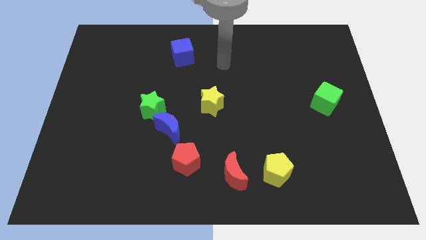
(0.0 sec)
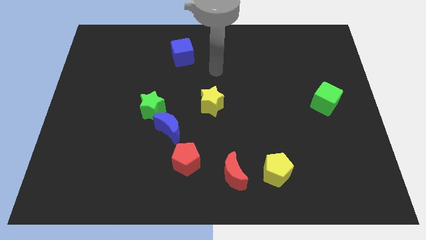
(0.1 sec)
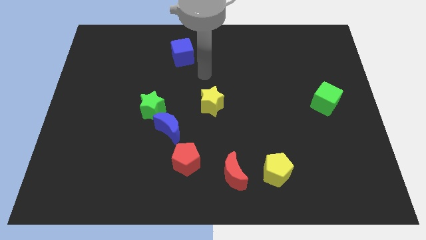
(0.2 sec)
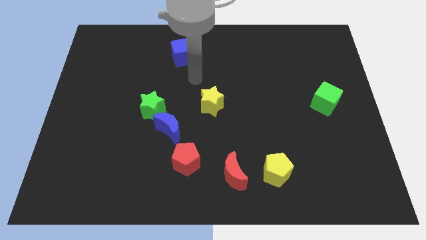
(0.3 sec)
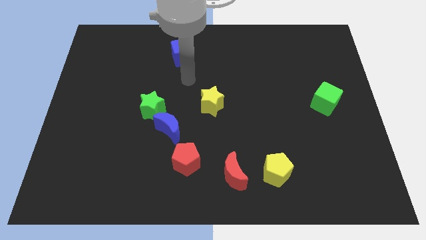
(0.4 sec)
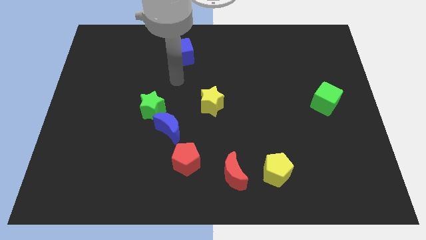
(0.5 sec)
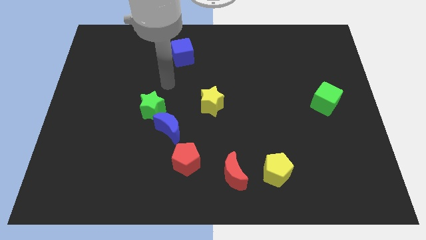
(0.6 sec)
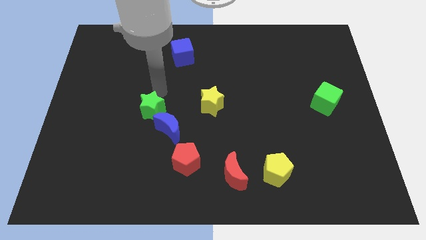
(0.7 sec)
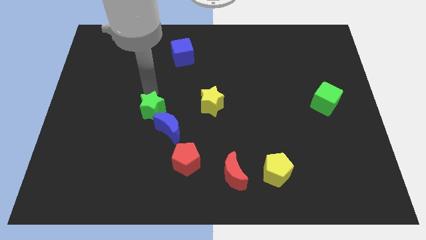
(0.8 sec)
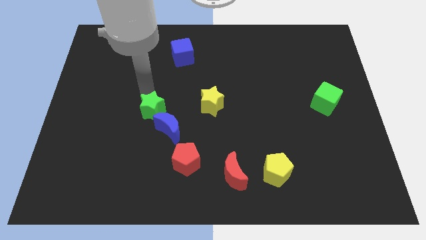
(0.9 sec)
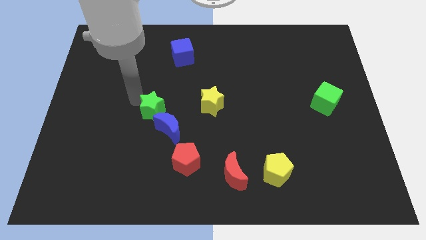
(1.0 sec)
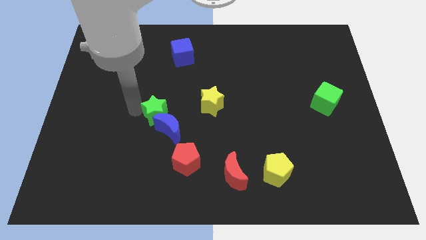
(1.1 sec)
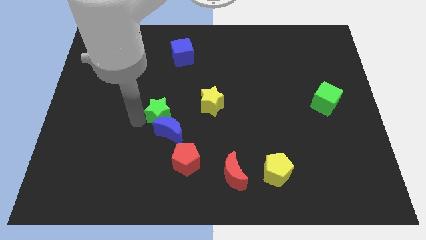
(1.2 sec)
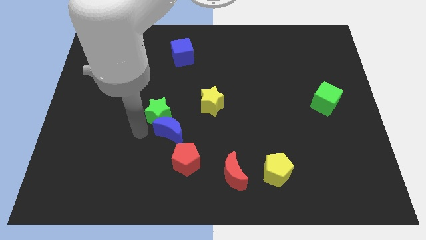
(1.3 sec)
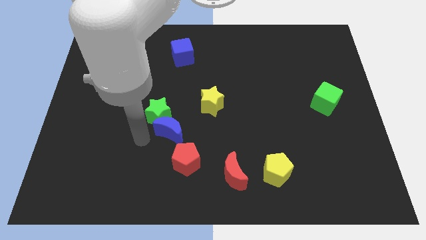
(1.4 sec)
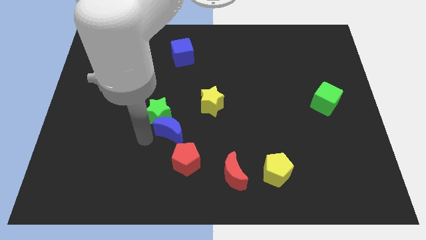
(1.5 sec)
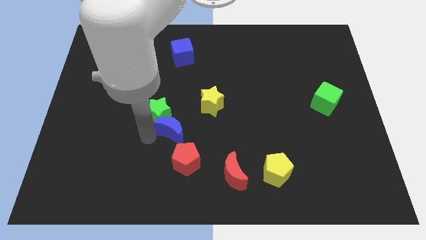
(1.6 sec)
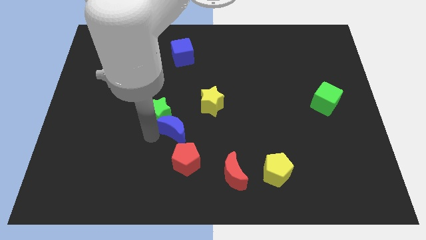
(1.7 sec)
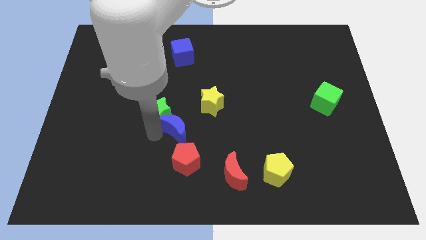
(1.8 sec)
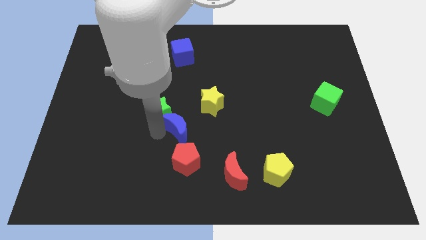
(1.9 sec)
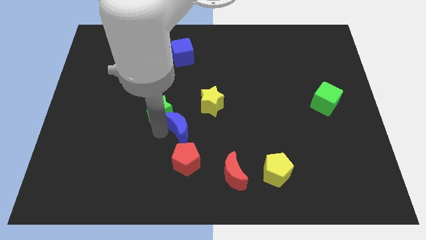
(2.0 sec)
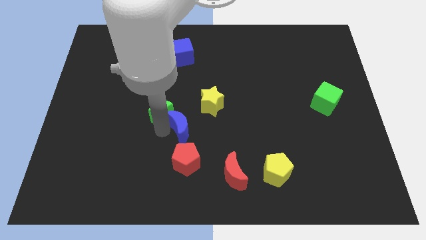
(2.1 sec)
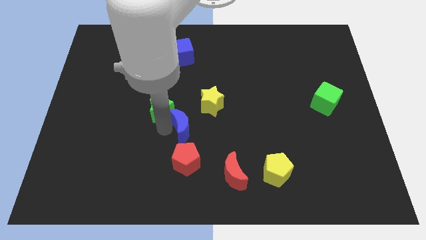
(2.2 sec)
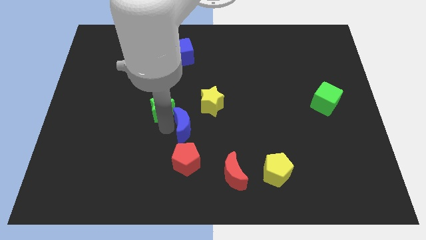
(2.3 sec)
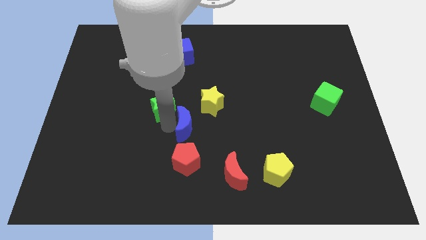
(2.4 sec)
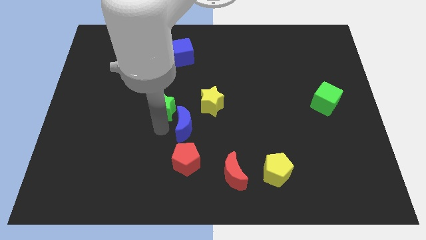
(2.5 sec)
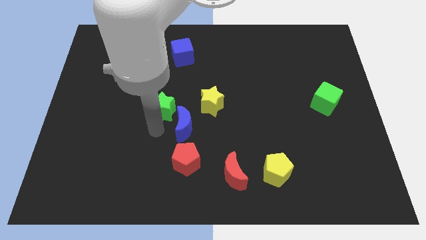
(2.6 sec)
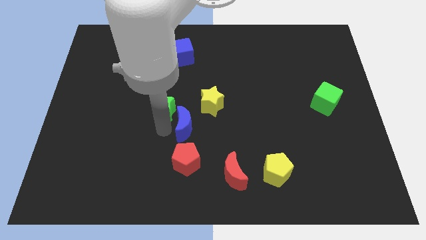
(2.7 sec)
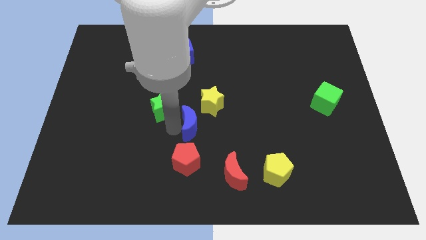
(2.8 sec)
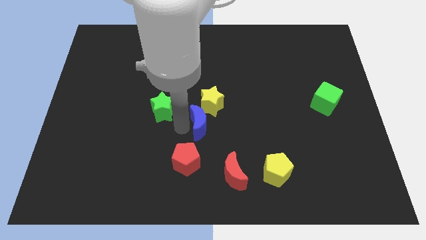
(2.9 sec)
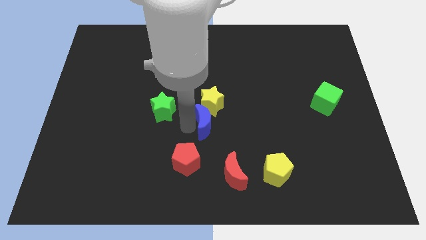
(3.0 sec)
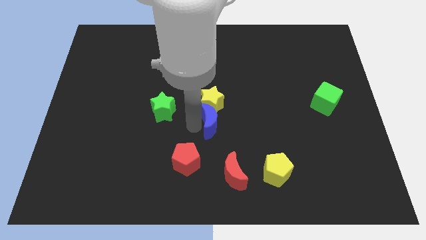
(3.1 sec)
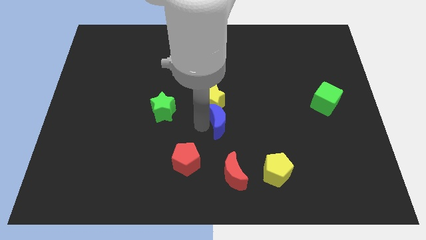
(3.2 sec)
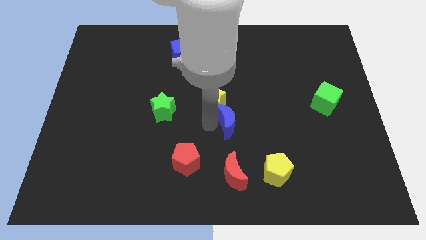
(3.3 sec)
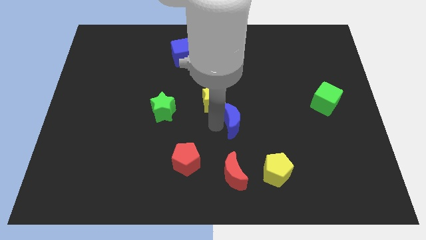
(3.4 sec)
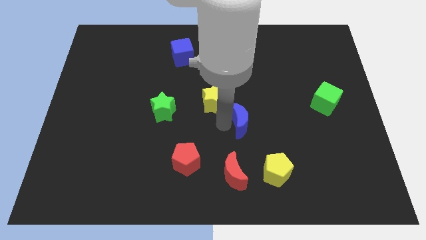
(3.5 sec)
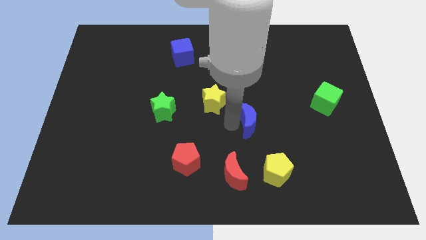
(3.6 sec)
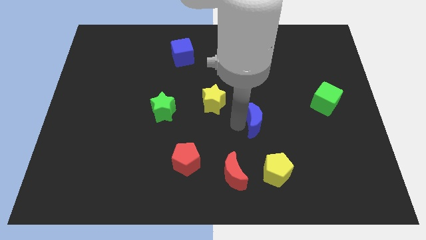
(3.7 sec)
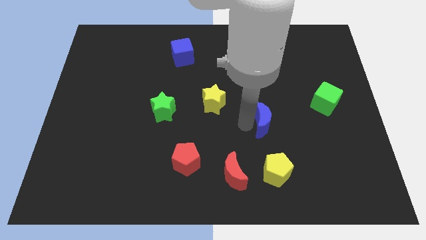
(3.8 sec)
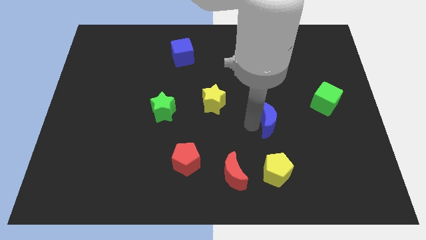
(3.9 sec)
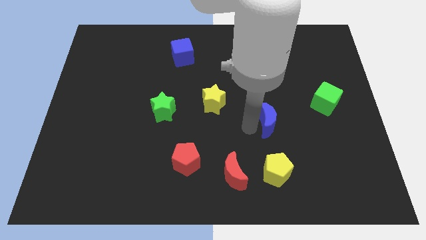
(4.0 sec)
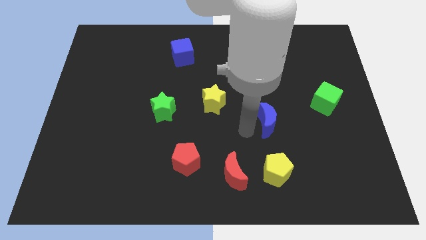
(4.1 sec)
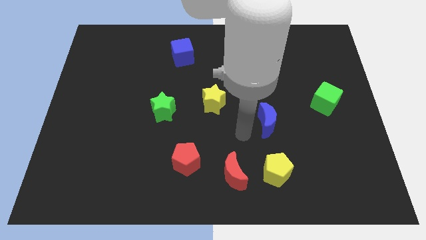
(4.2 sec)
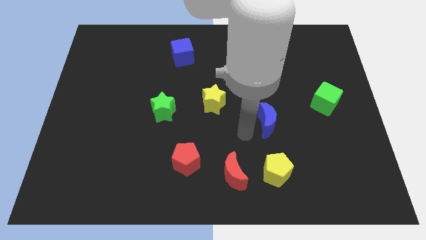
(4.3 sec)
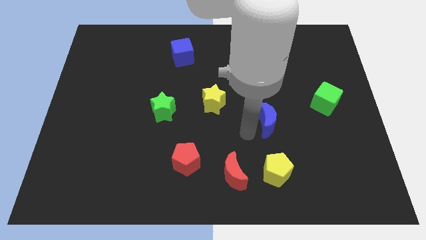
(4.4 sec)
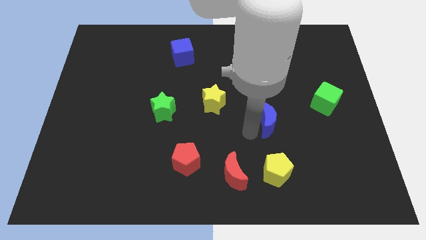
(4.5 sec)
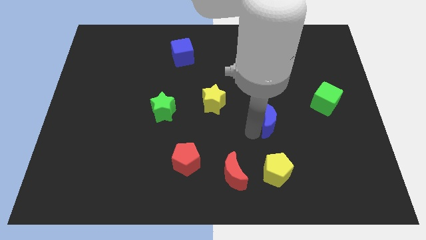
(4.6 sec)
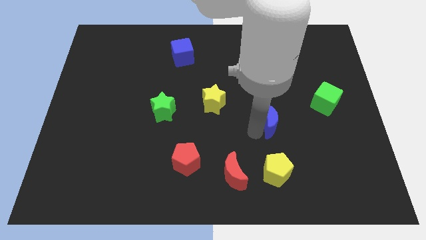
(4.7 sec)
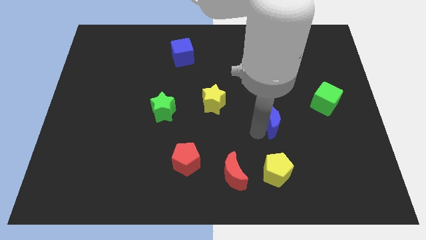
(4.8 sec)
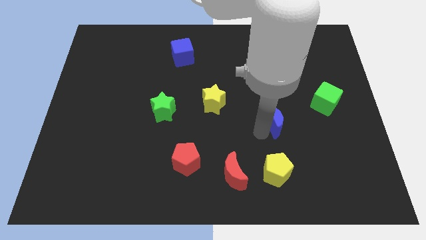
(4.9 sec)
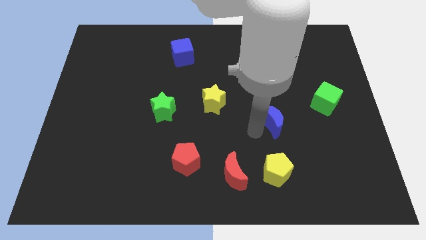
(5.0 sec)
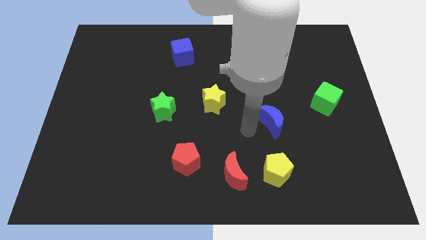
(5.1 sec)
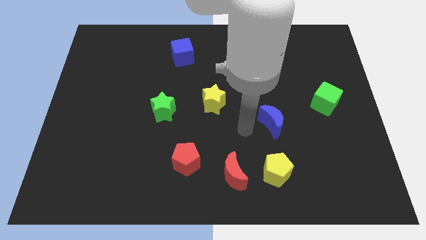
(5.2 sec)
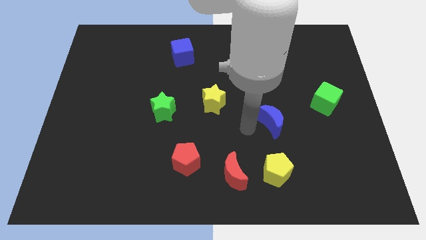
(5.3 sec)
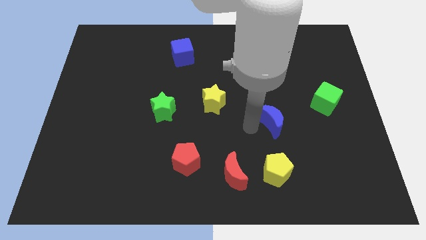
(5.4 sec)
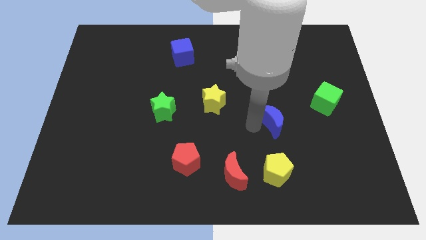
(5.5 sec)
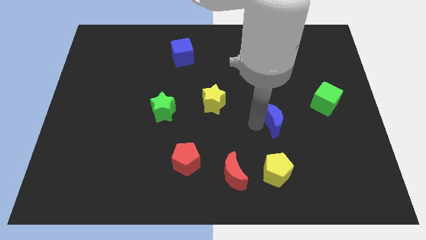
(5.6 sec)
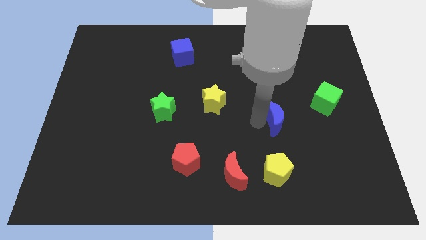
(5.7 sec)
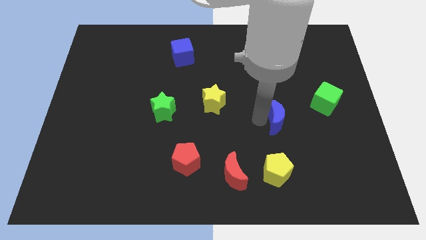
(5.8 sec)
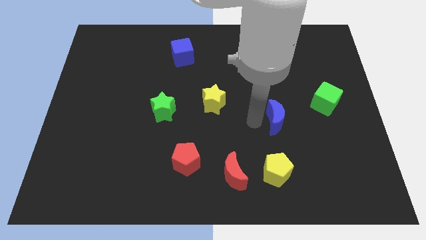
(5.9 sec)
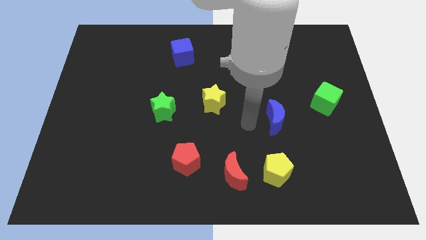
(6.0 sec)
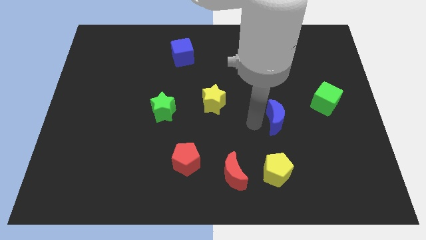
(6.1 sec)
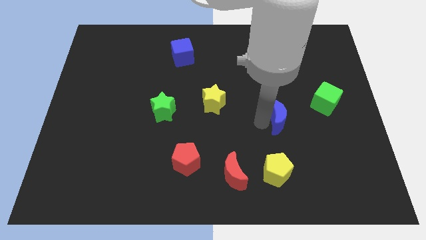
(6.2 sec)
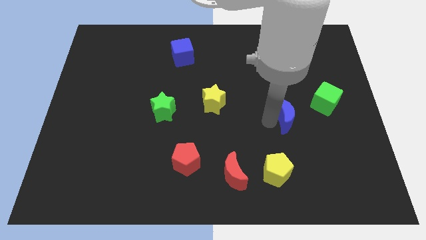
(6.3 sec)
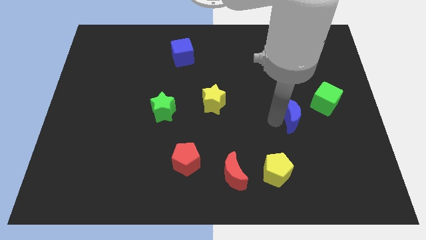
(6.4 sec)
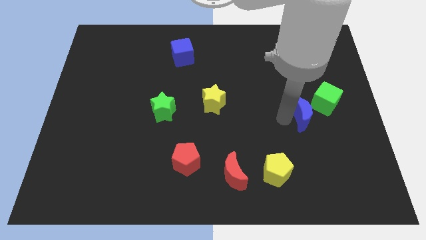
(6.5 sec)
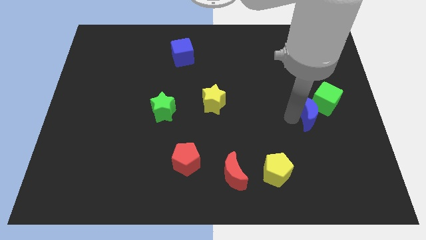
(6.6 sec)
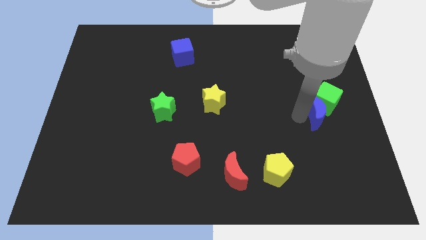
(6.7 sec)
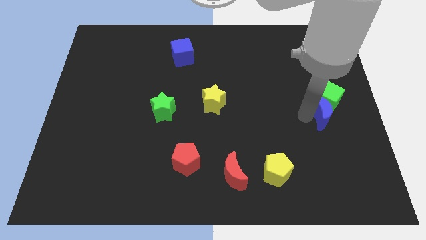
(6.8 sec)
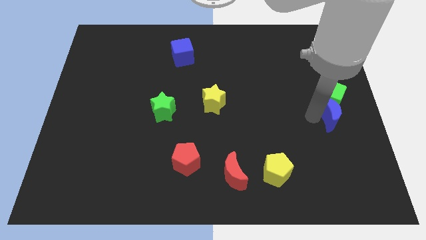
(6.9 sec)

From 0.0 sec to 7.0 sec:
push the blue moon to the right side
